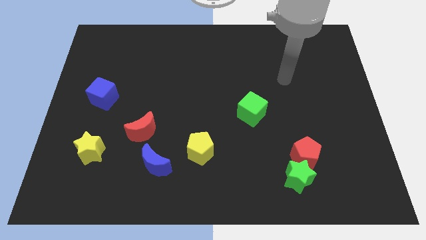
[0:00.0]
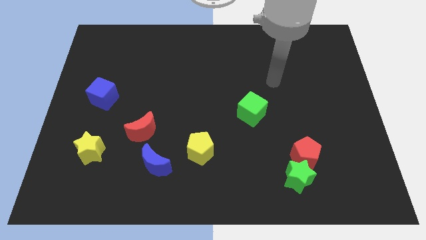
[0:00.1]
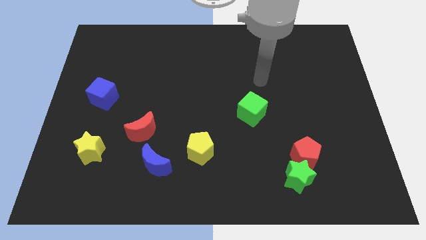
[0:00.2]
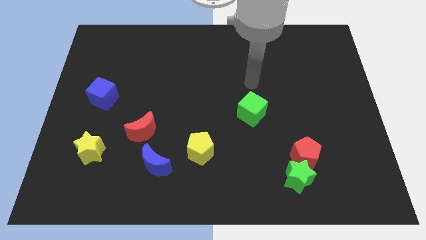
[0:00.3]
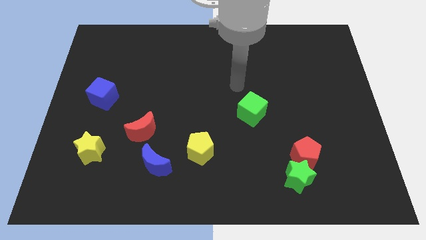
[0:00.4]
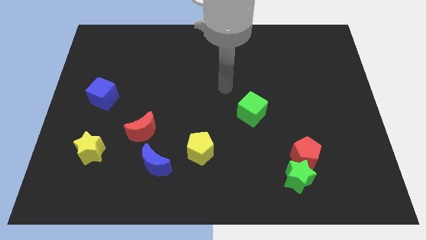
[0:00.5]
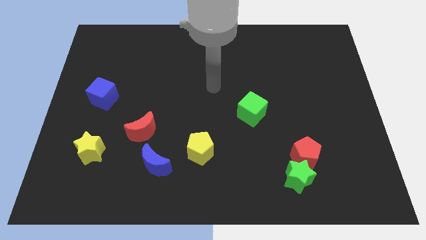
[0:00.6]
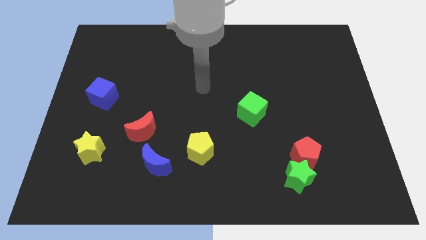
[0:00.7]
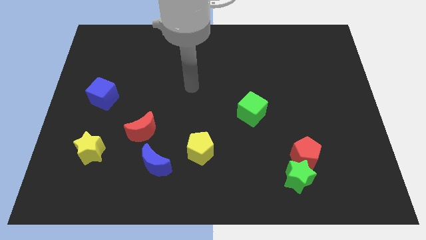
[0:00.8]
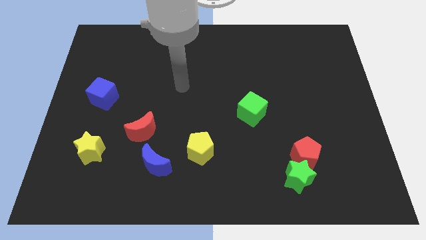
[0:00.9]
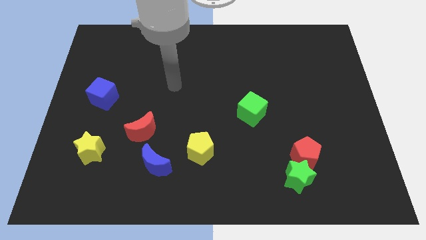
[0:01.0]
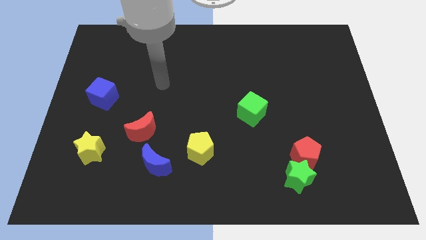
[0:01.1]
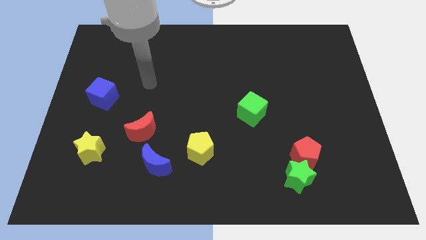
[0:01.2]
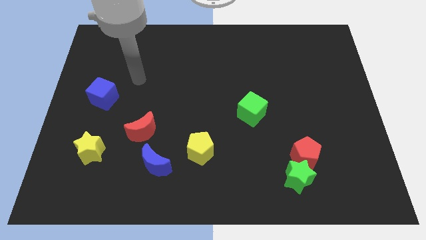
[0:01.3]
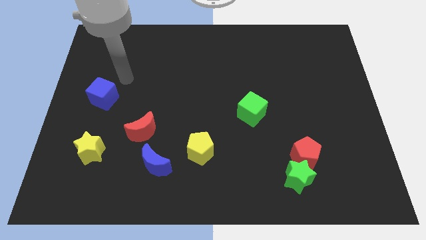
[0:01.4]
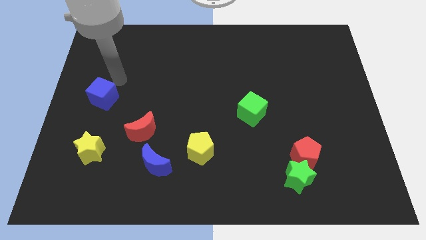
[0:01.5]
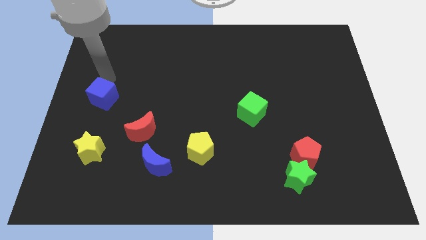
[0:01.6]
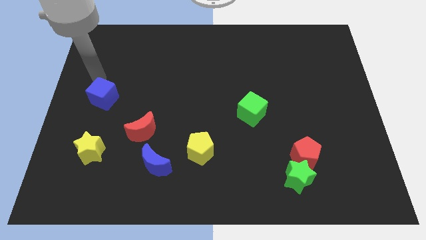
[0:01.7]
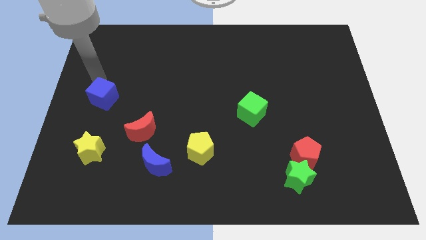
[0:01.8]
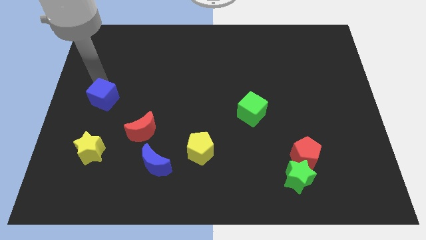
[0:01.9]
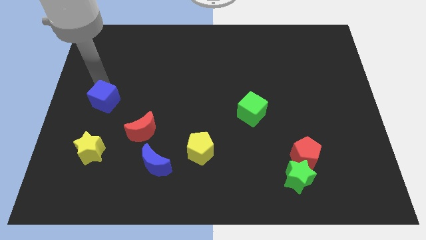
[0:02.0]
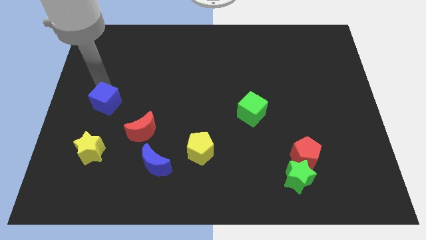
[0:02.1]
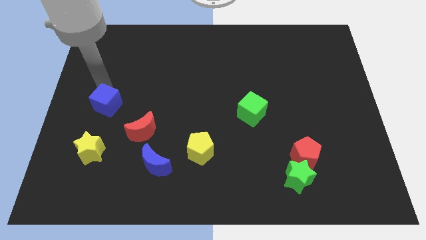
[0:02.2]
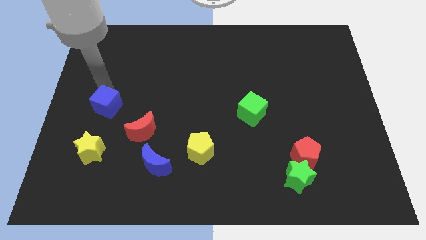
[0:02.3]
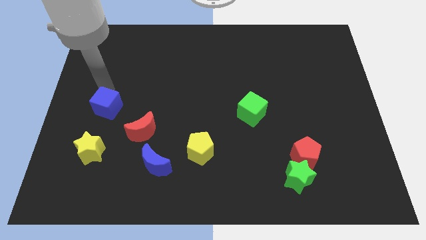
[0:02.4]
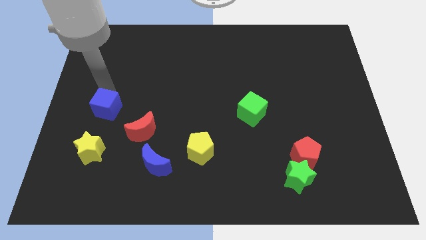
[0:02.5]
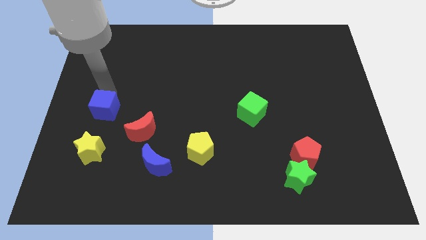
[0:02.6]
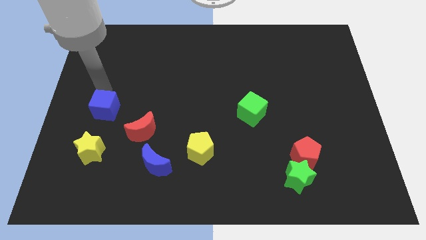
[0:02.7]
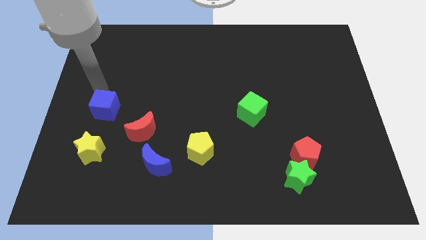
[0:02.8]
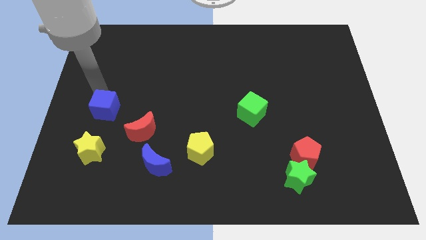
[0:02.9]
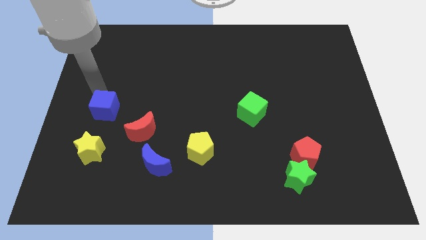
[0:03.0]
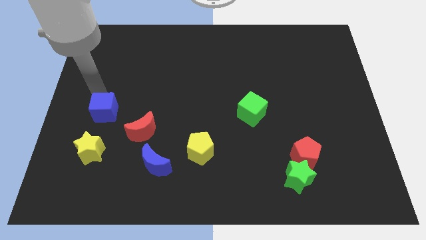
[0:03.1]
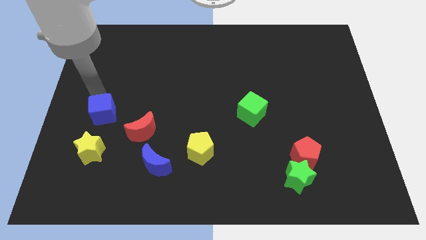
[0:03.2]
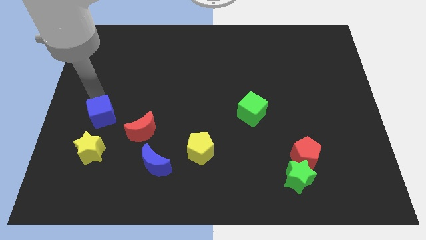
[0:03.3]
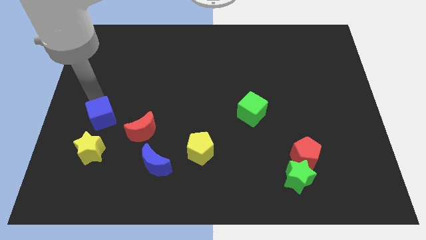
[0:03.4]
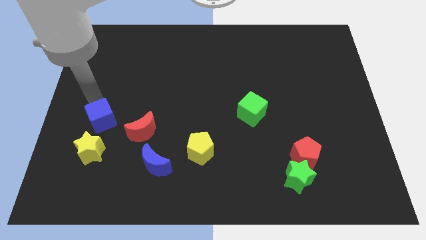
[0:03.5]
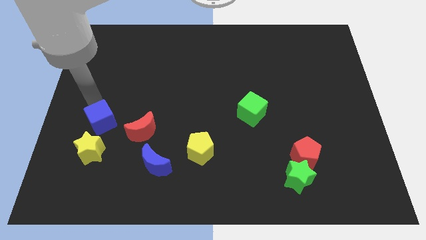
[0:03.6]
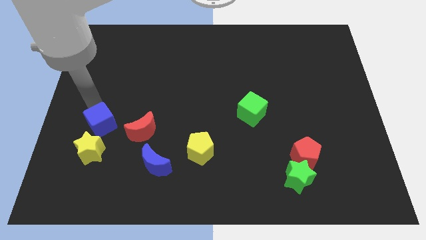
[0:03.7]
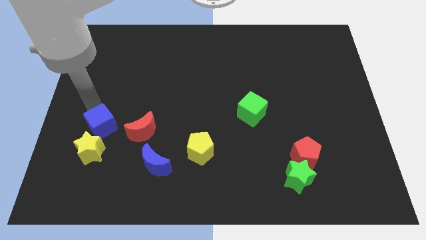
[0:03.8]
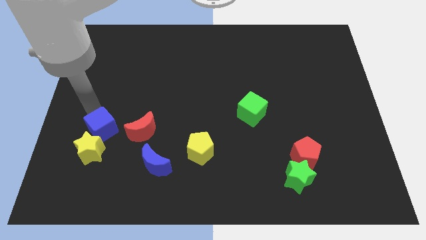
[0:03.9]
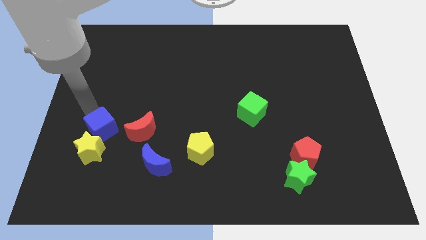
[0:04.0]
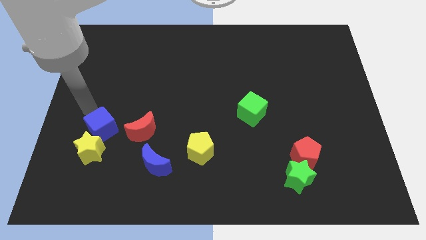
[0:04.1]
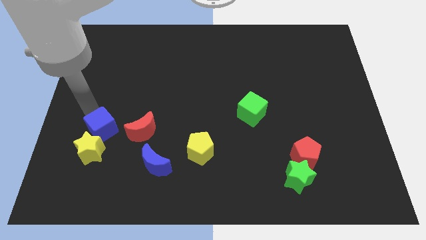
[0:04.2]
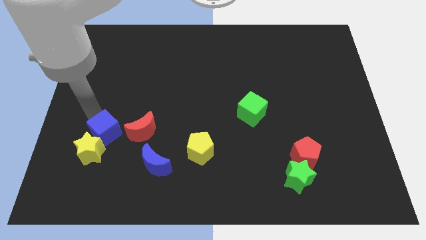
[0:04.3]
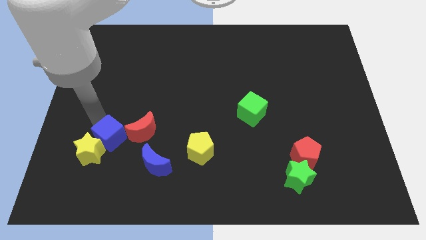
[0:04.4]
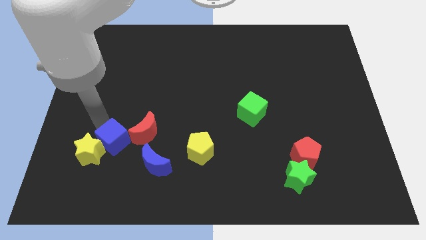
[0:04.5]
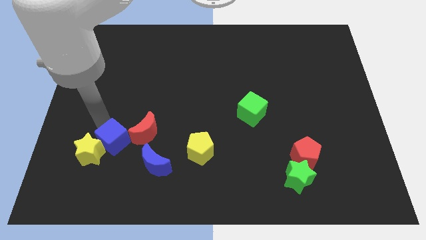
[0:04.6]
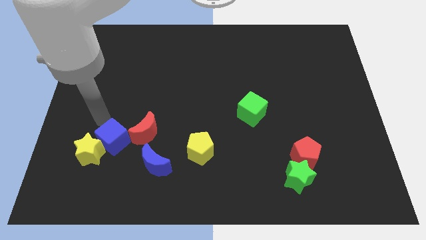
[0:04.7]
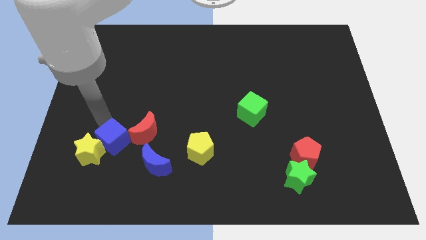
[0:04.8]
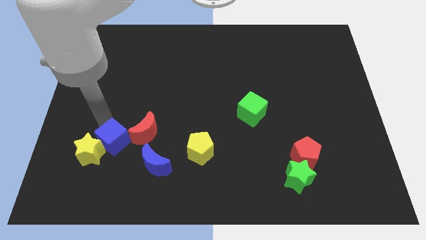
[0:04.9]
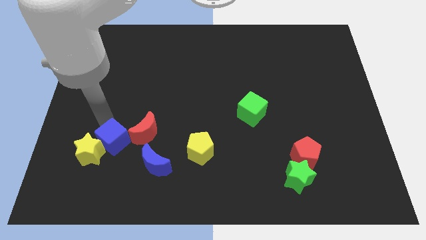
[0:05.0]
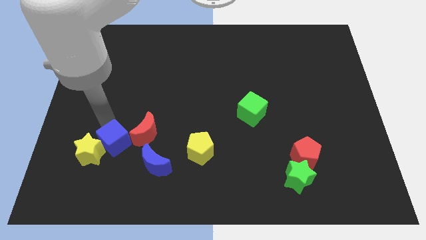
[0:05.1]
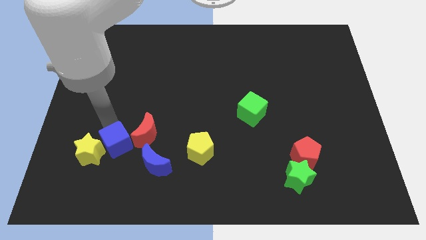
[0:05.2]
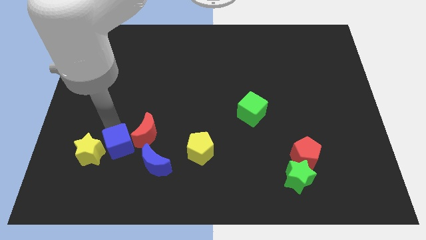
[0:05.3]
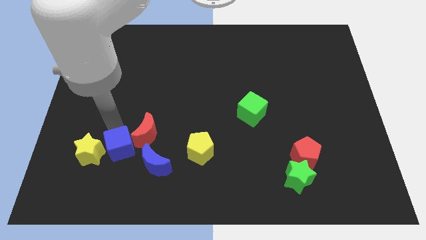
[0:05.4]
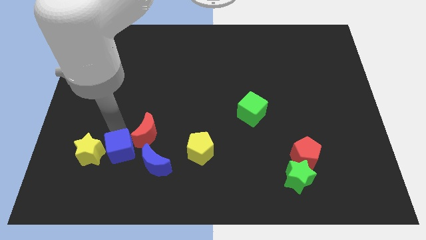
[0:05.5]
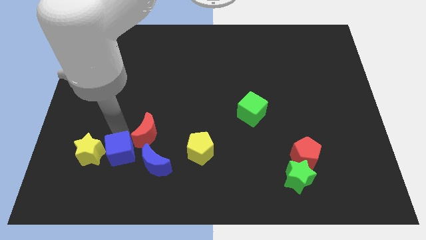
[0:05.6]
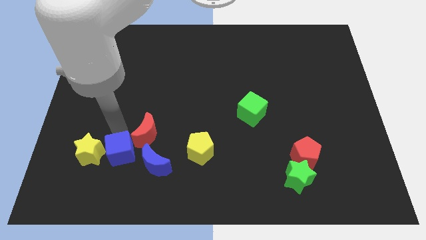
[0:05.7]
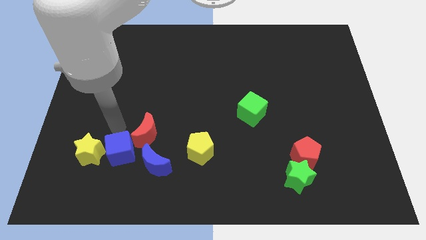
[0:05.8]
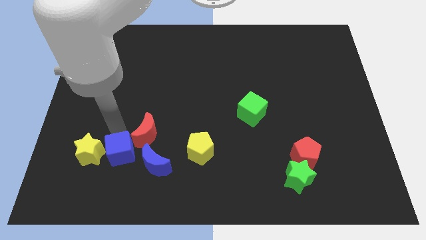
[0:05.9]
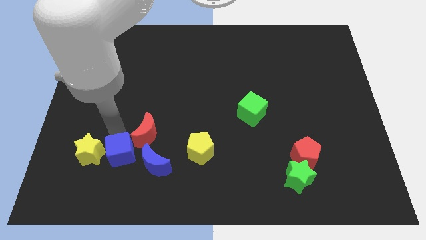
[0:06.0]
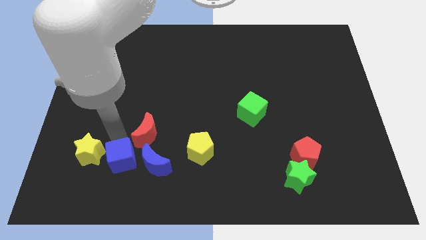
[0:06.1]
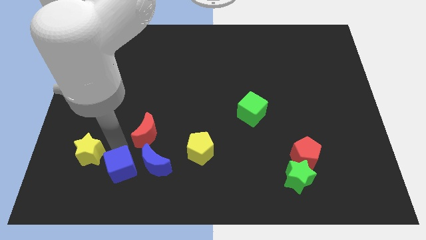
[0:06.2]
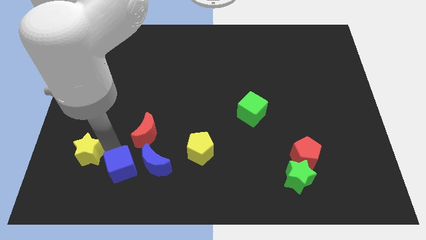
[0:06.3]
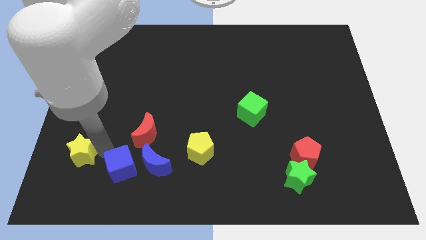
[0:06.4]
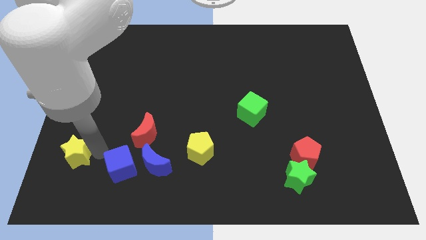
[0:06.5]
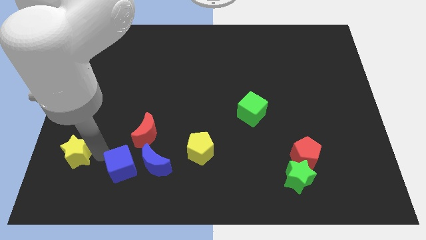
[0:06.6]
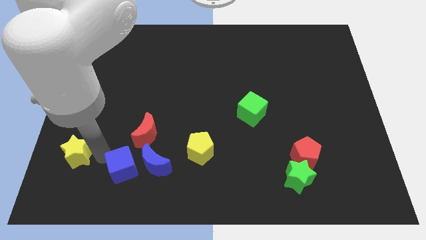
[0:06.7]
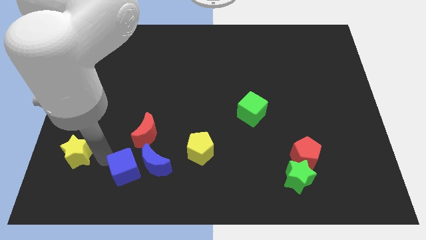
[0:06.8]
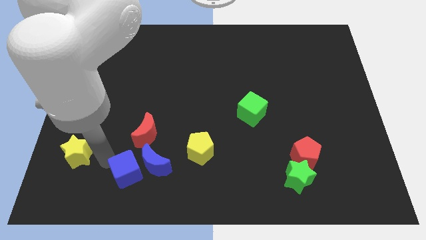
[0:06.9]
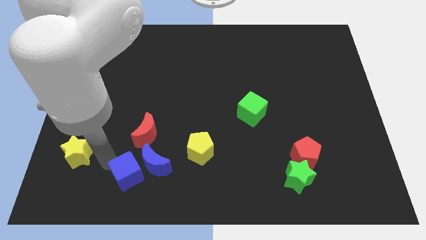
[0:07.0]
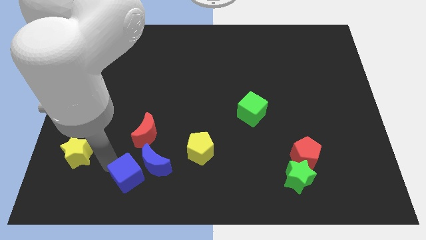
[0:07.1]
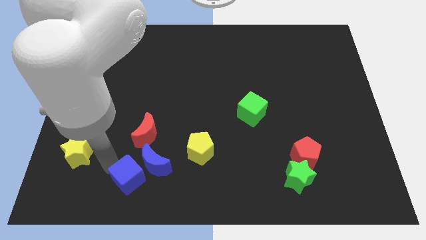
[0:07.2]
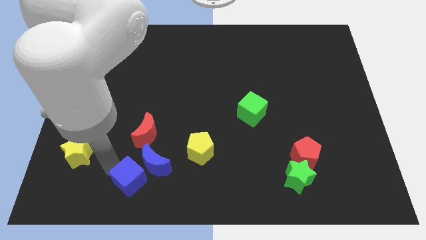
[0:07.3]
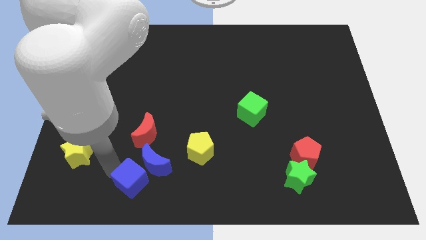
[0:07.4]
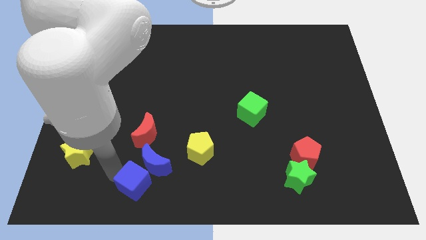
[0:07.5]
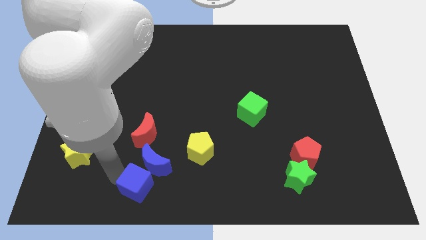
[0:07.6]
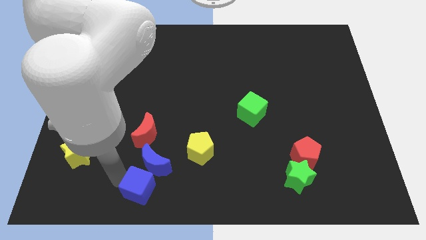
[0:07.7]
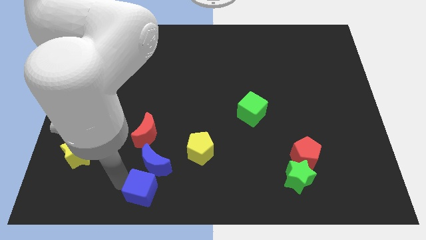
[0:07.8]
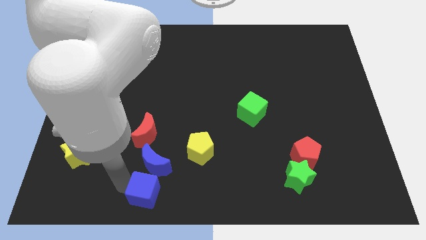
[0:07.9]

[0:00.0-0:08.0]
push the blue cube to the bottom side
